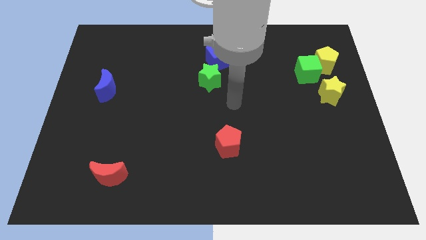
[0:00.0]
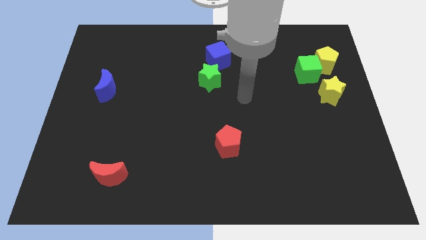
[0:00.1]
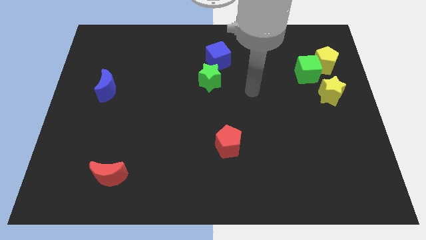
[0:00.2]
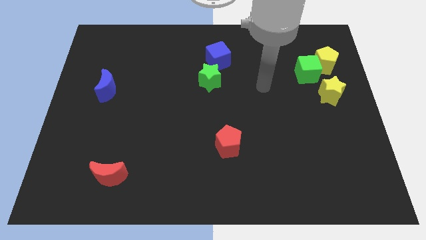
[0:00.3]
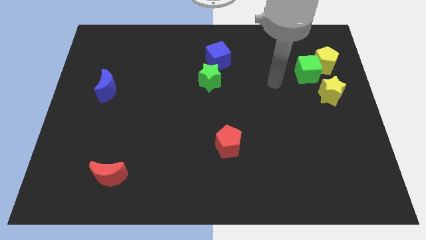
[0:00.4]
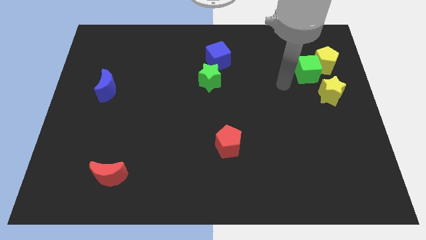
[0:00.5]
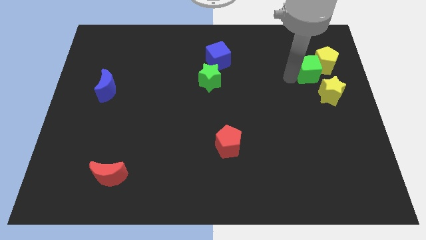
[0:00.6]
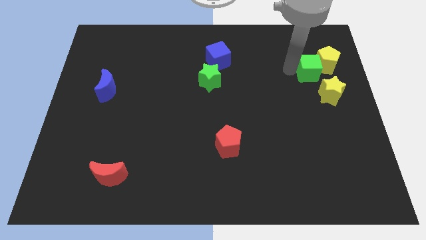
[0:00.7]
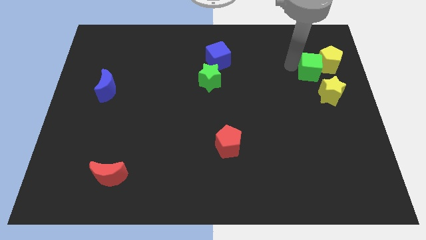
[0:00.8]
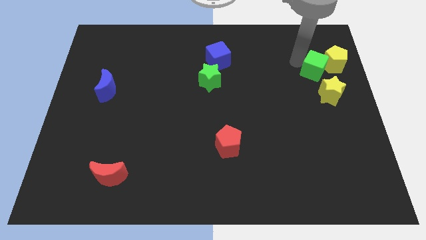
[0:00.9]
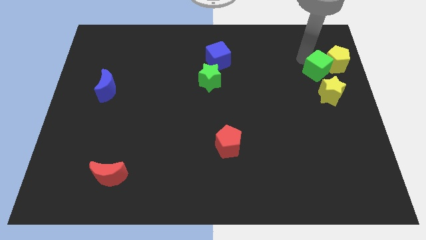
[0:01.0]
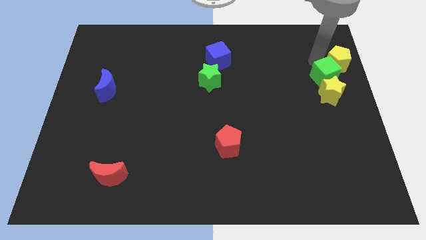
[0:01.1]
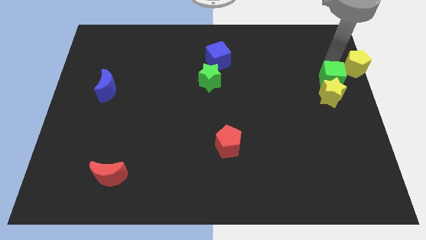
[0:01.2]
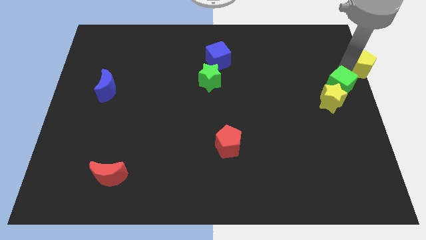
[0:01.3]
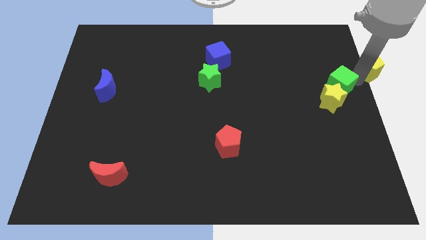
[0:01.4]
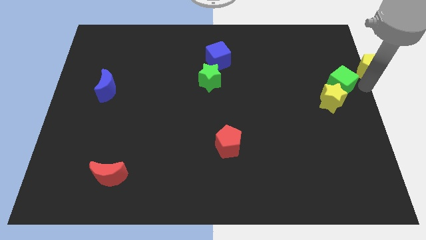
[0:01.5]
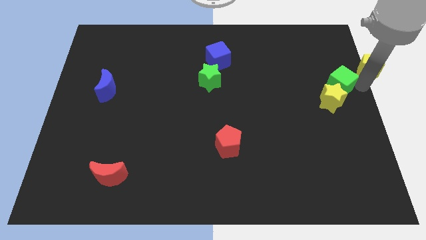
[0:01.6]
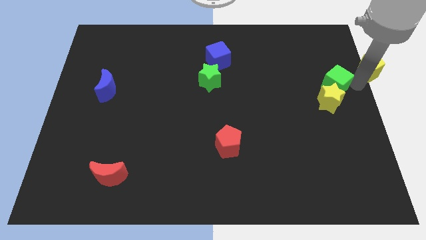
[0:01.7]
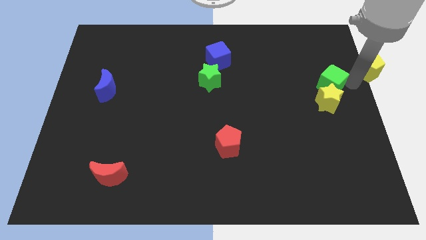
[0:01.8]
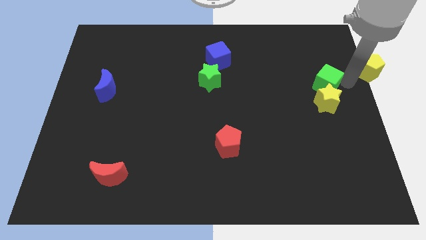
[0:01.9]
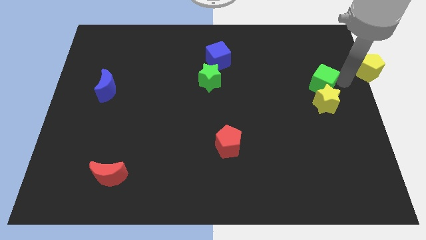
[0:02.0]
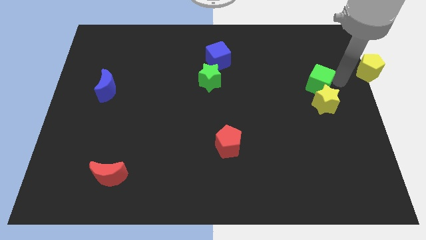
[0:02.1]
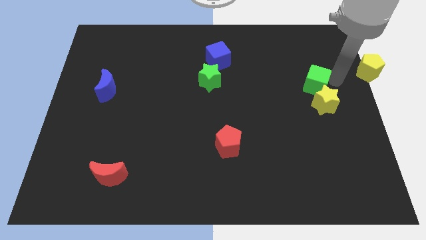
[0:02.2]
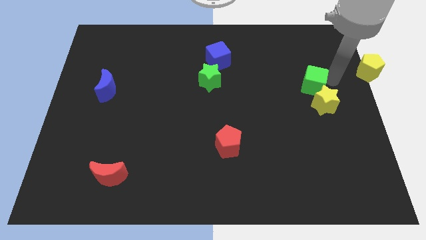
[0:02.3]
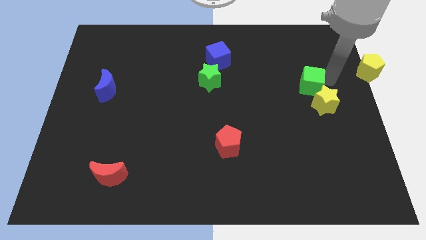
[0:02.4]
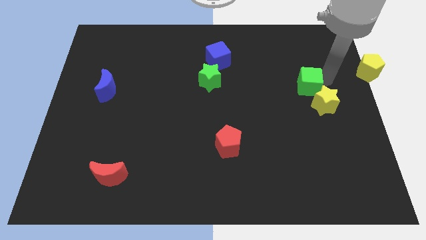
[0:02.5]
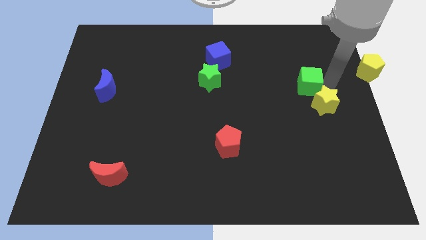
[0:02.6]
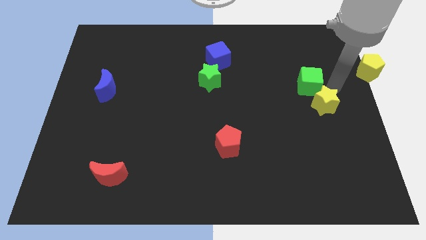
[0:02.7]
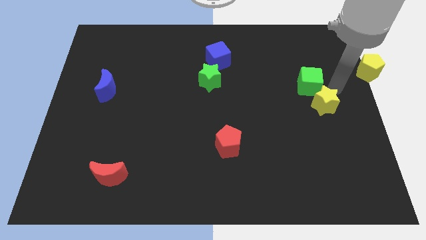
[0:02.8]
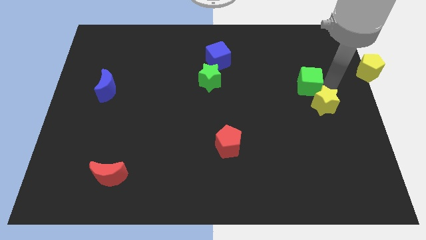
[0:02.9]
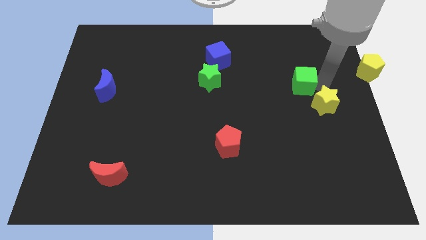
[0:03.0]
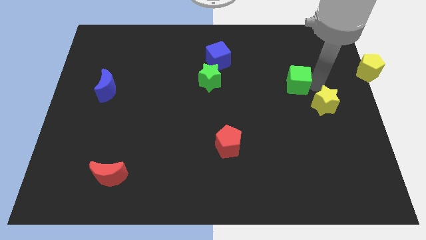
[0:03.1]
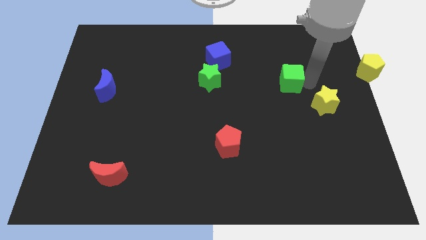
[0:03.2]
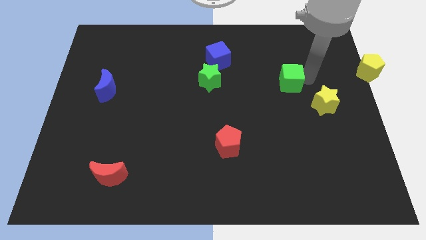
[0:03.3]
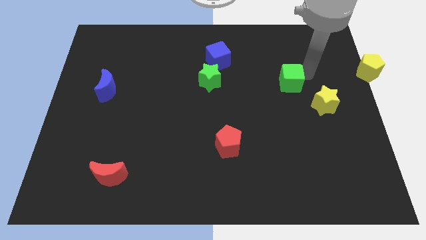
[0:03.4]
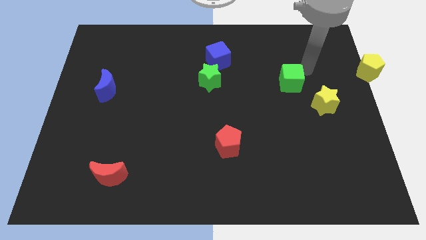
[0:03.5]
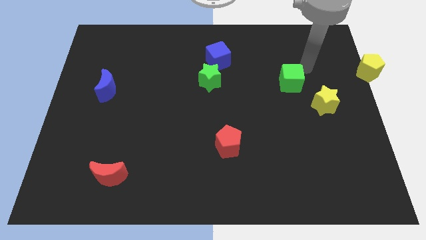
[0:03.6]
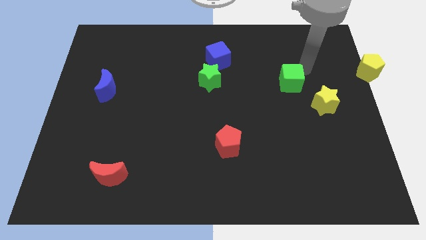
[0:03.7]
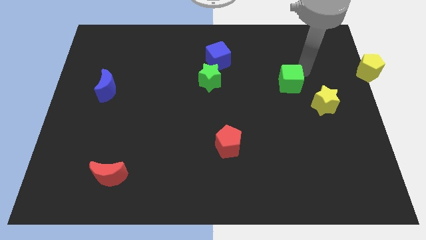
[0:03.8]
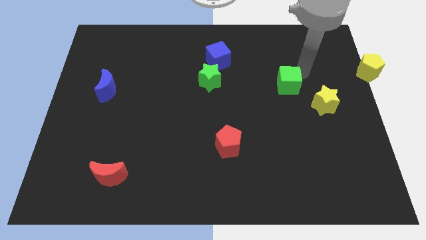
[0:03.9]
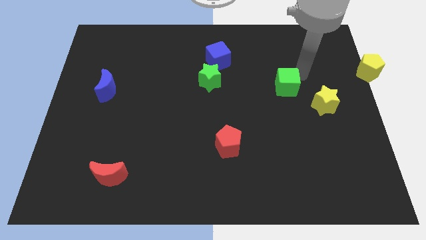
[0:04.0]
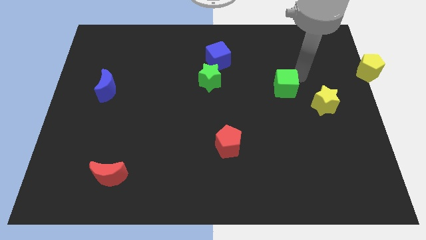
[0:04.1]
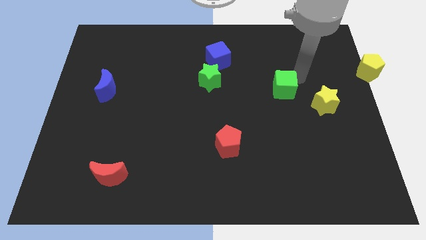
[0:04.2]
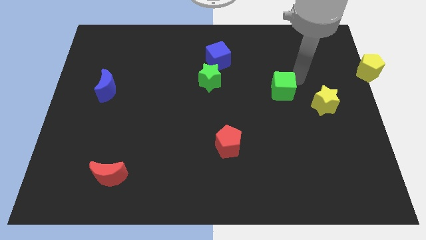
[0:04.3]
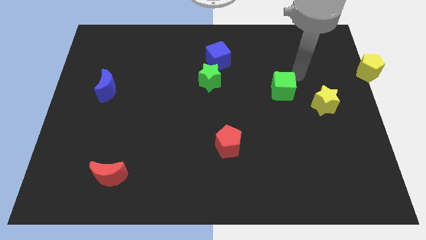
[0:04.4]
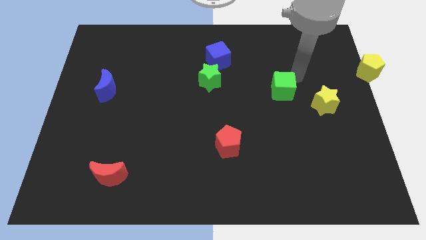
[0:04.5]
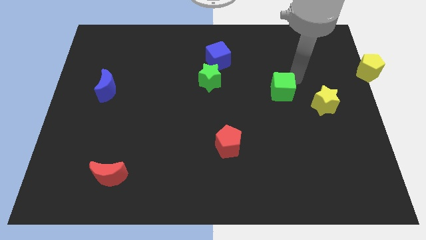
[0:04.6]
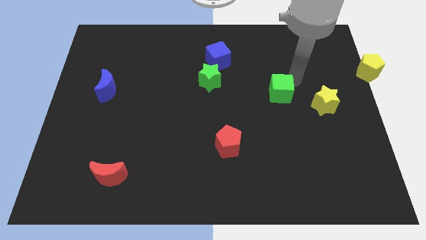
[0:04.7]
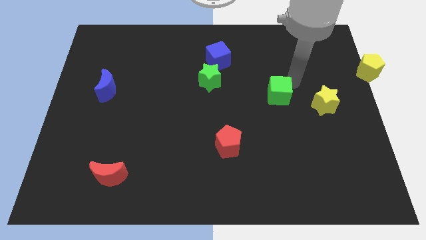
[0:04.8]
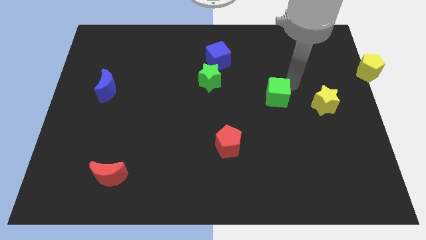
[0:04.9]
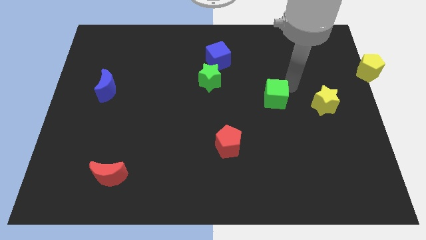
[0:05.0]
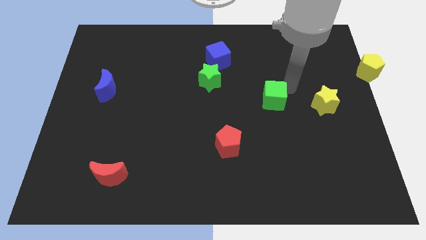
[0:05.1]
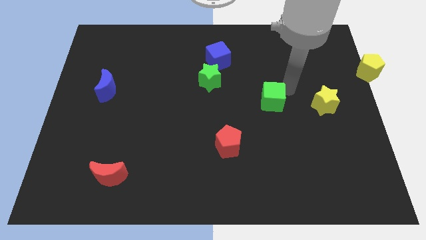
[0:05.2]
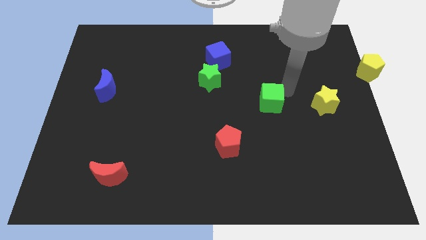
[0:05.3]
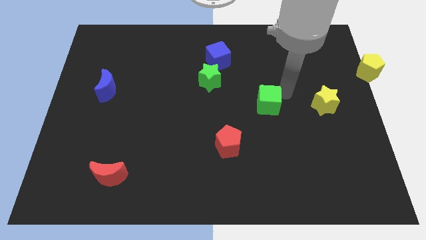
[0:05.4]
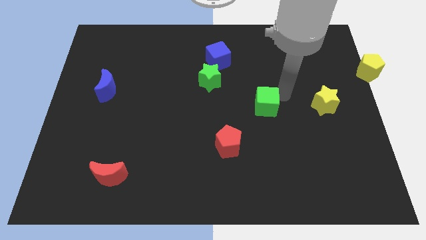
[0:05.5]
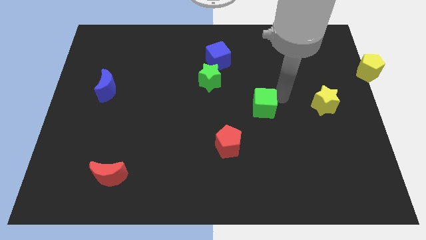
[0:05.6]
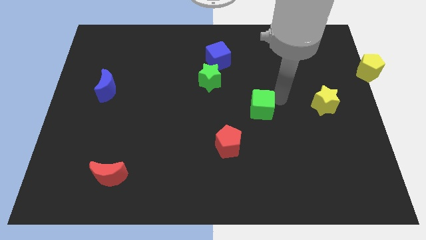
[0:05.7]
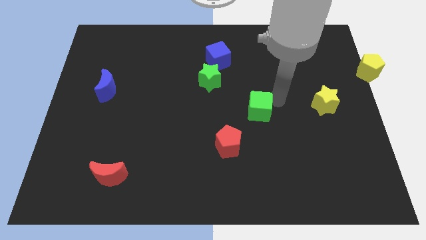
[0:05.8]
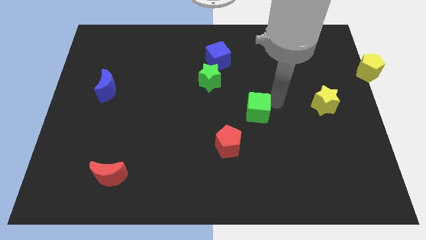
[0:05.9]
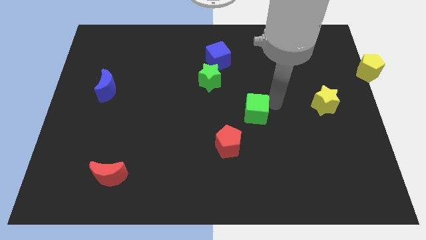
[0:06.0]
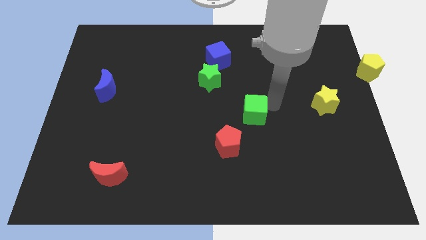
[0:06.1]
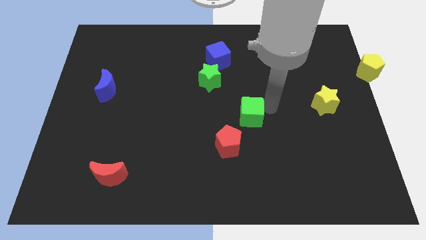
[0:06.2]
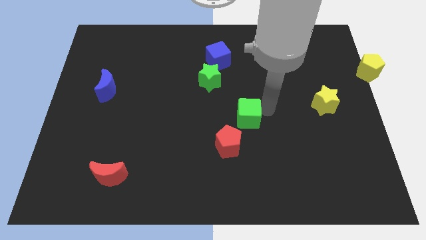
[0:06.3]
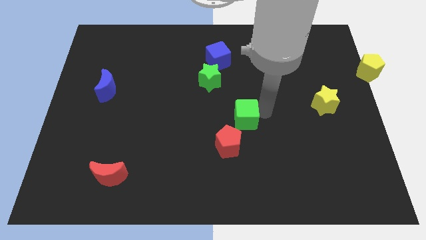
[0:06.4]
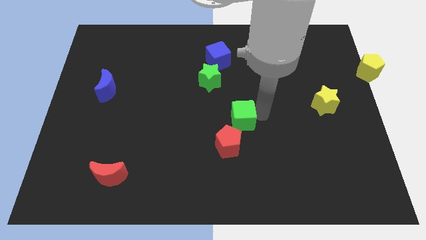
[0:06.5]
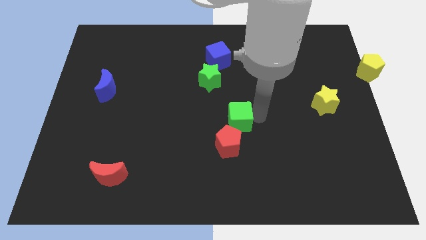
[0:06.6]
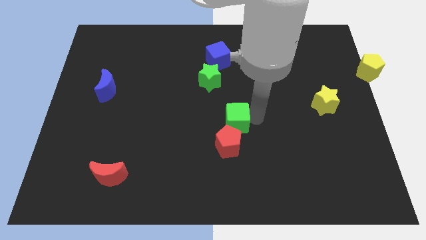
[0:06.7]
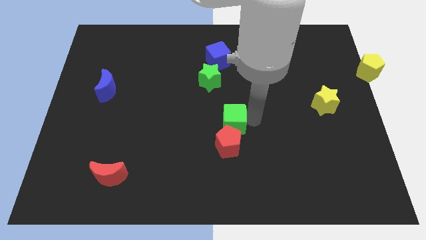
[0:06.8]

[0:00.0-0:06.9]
slide the green cube close to the red pentagon
